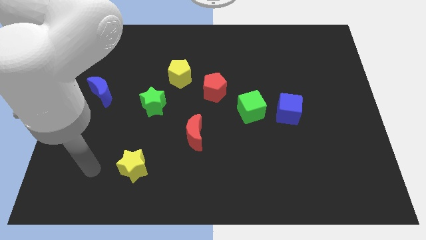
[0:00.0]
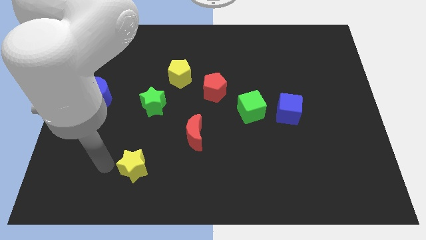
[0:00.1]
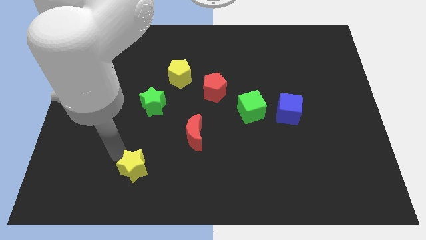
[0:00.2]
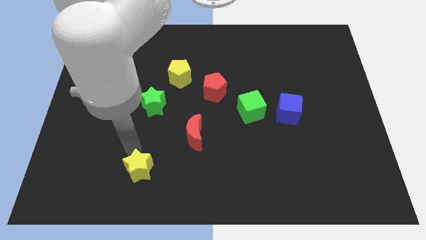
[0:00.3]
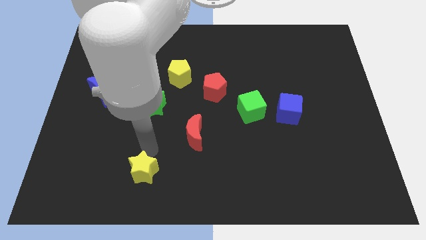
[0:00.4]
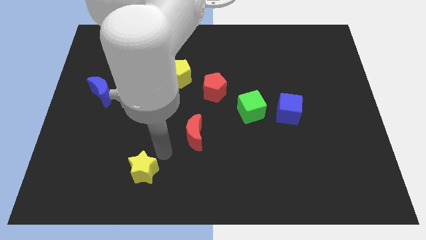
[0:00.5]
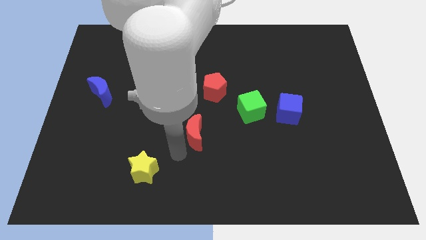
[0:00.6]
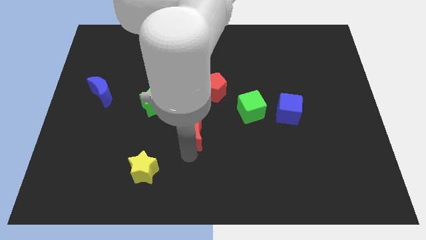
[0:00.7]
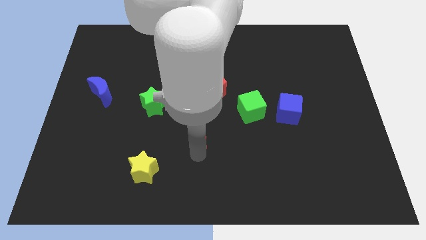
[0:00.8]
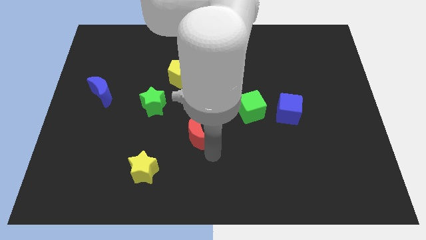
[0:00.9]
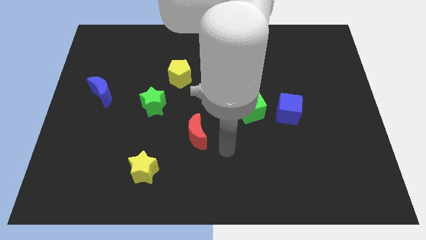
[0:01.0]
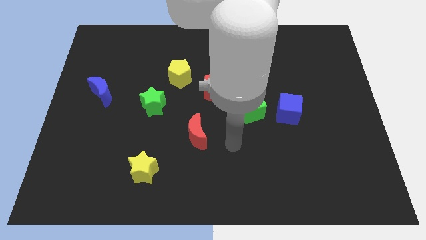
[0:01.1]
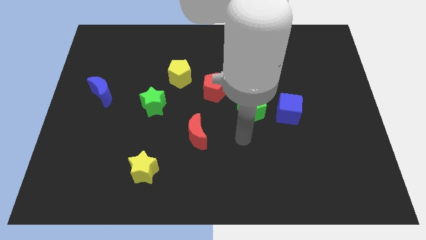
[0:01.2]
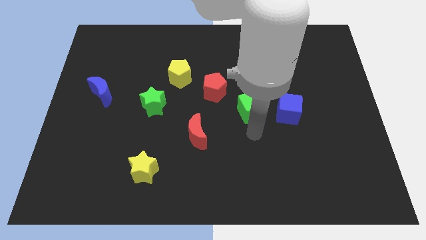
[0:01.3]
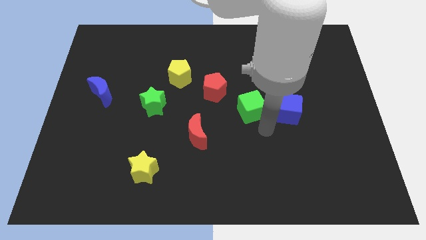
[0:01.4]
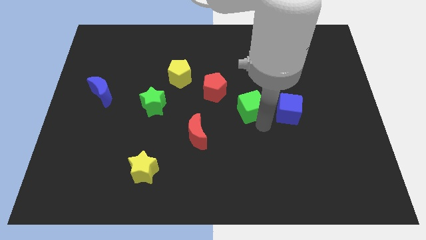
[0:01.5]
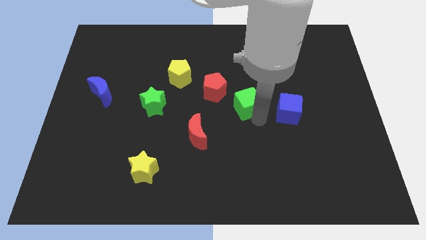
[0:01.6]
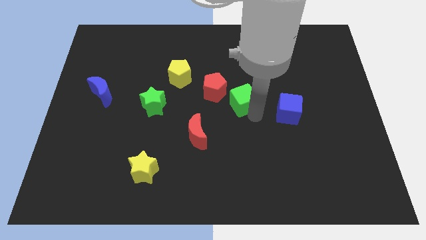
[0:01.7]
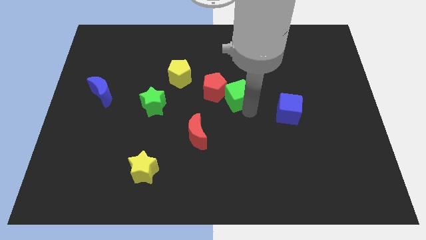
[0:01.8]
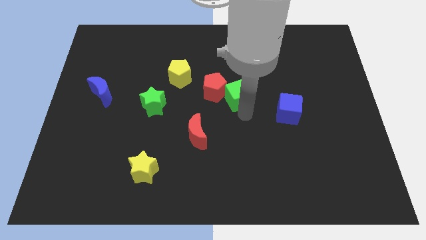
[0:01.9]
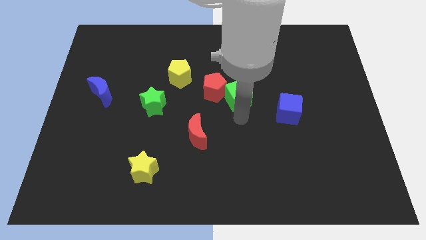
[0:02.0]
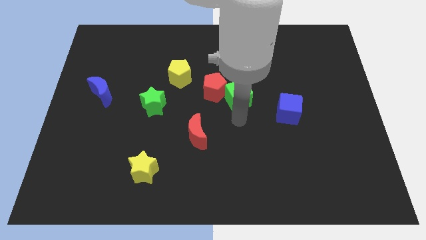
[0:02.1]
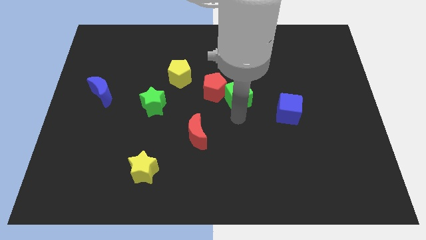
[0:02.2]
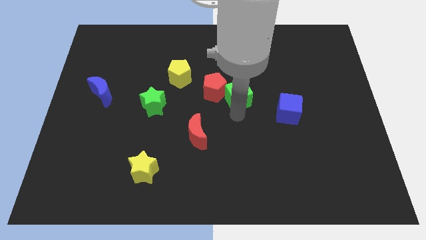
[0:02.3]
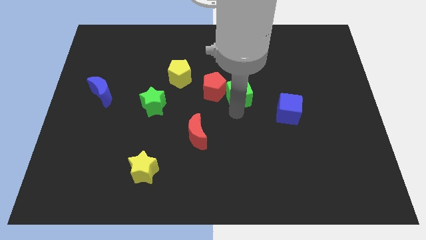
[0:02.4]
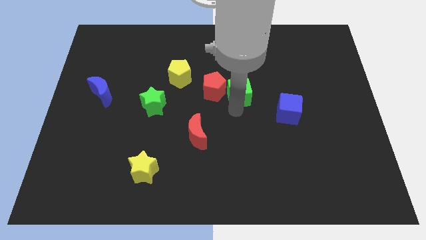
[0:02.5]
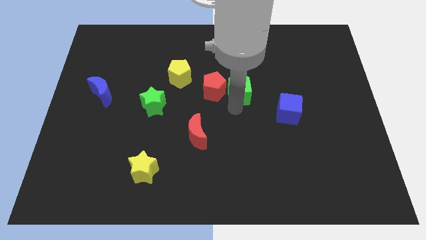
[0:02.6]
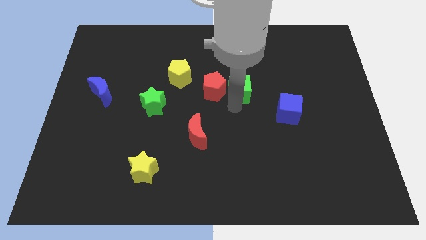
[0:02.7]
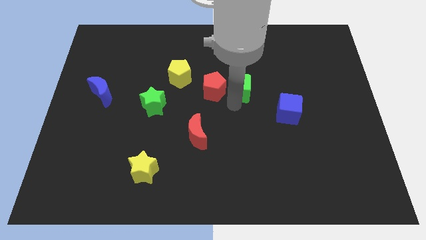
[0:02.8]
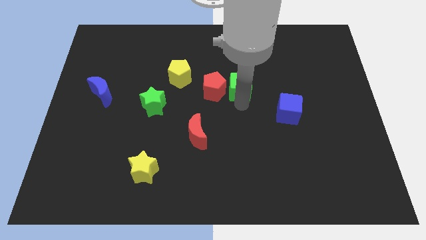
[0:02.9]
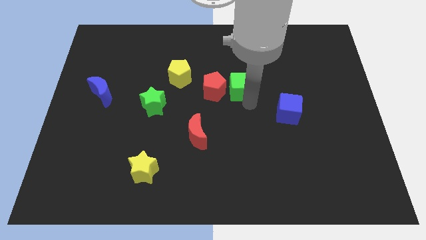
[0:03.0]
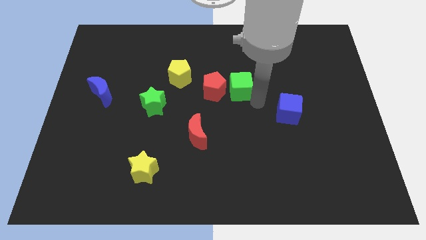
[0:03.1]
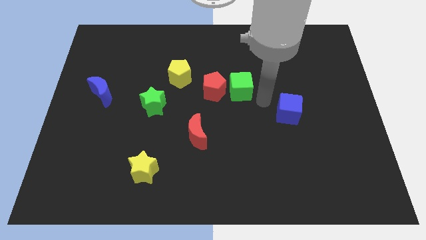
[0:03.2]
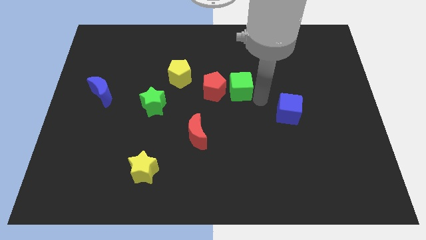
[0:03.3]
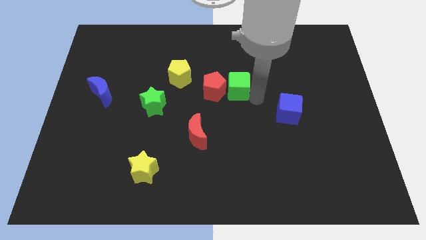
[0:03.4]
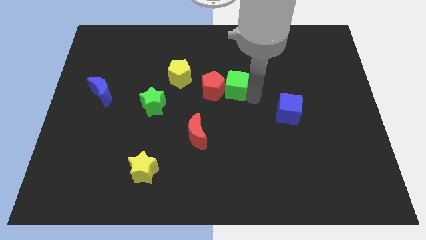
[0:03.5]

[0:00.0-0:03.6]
push the green cube diagonally up and left slightly

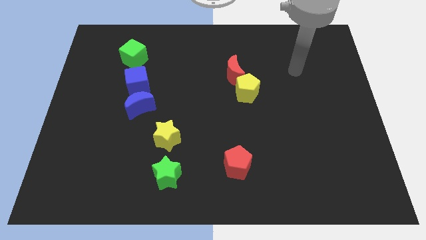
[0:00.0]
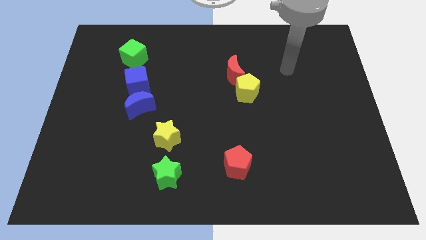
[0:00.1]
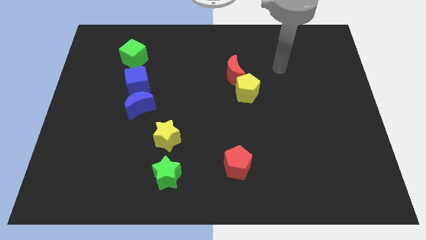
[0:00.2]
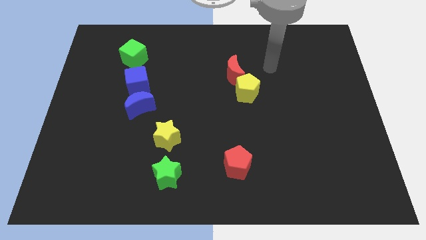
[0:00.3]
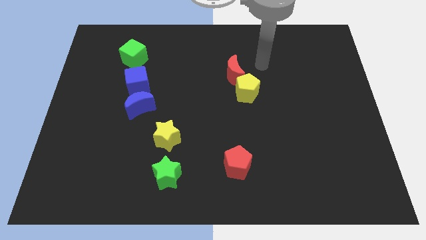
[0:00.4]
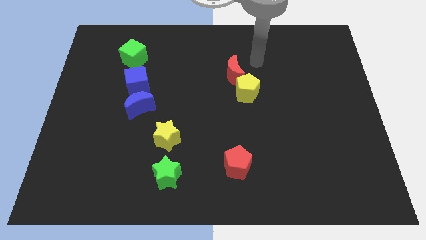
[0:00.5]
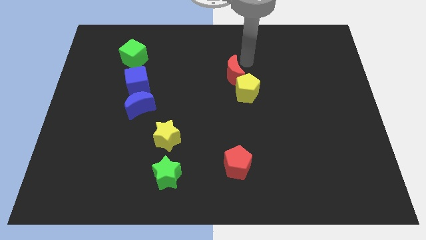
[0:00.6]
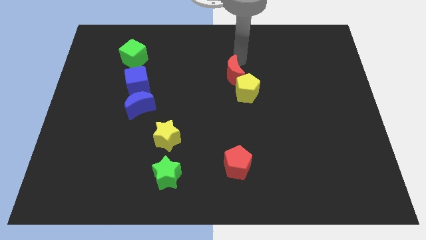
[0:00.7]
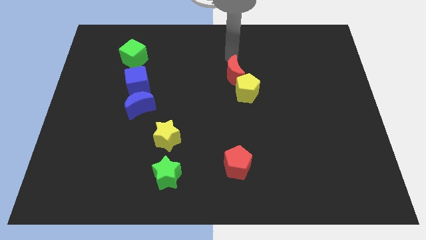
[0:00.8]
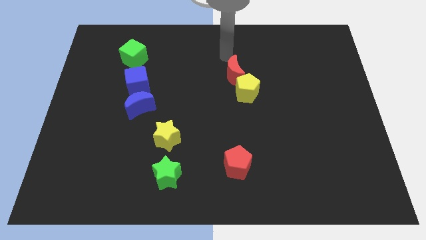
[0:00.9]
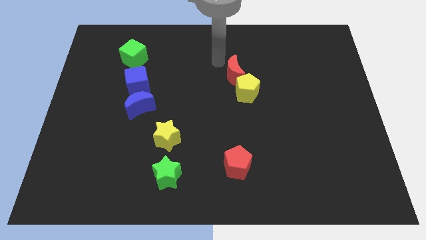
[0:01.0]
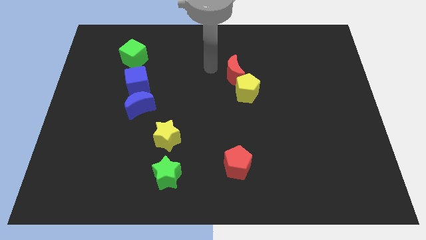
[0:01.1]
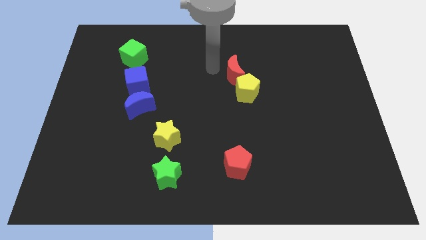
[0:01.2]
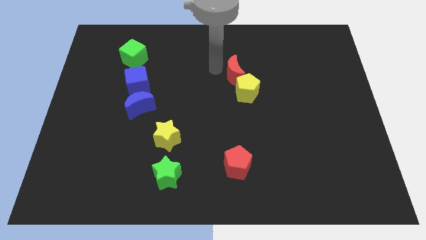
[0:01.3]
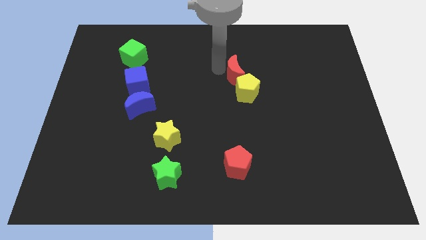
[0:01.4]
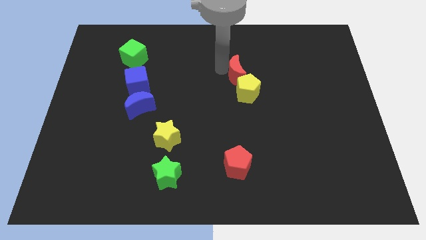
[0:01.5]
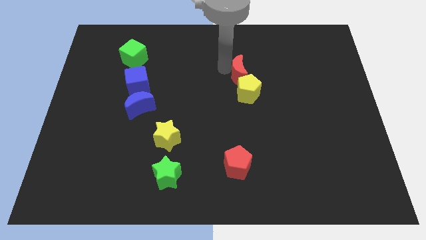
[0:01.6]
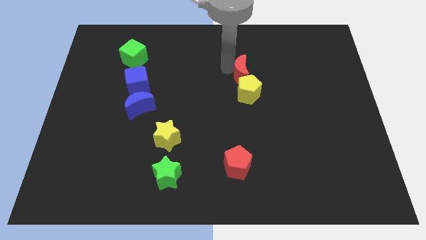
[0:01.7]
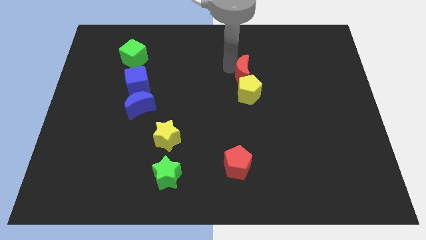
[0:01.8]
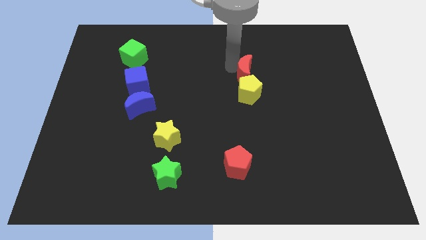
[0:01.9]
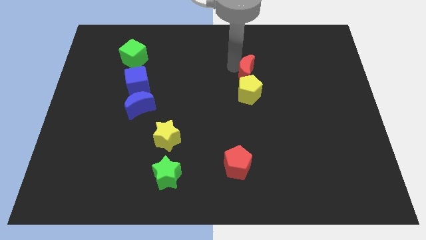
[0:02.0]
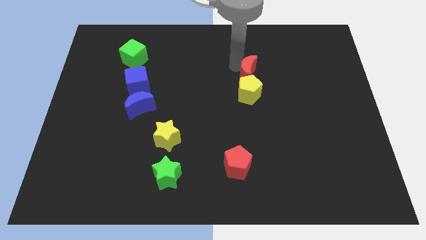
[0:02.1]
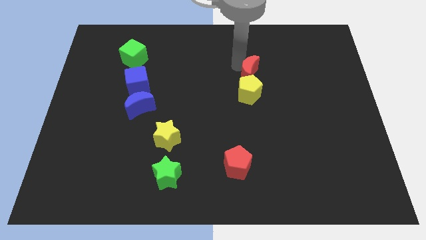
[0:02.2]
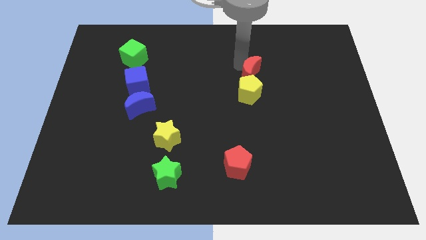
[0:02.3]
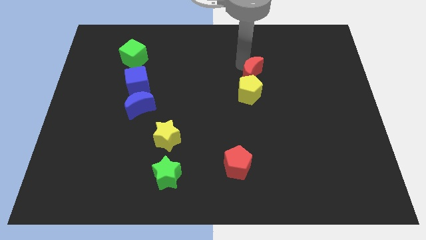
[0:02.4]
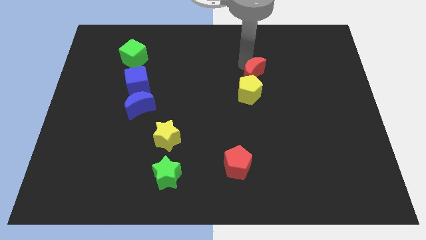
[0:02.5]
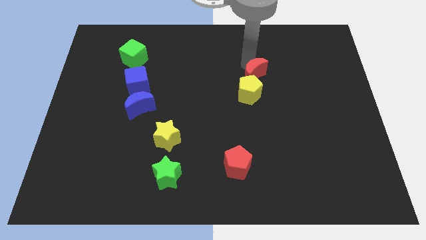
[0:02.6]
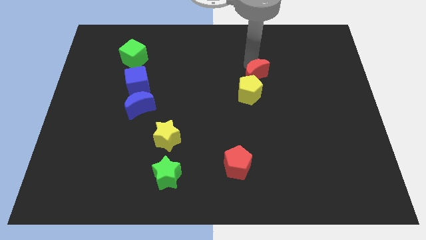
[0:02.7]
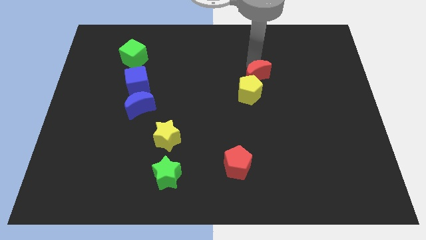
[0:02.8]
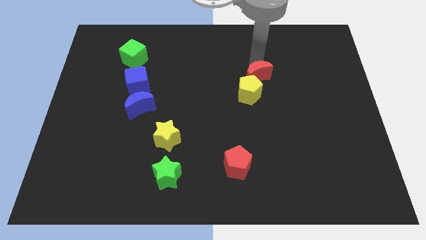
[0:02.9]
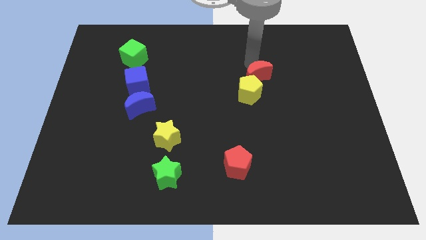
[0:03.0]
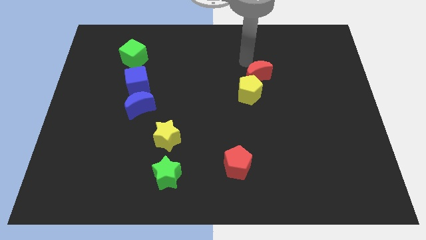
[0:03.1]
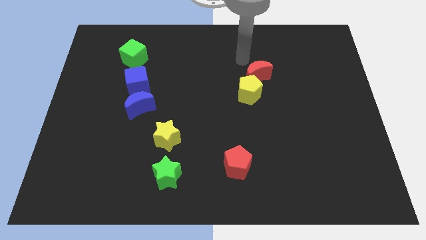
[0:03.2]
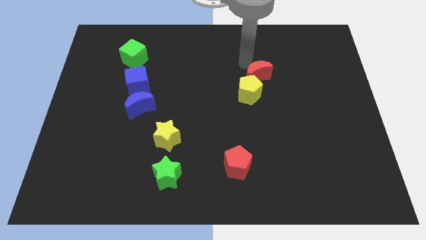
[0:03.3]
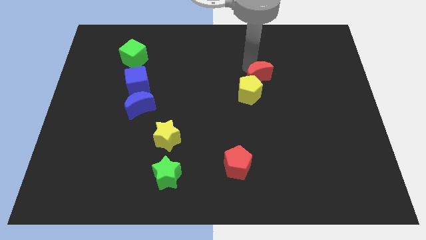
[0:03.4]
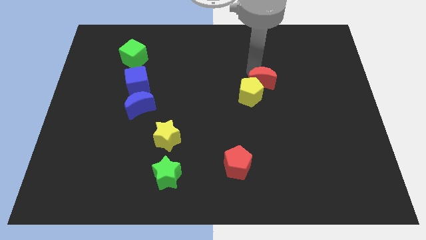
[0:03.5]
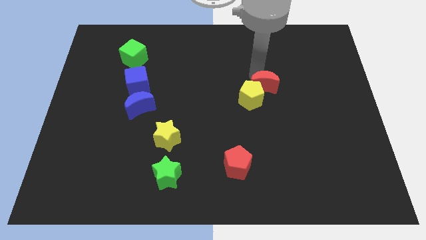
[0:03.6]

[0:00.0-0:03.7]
slightly push the red moon diagonally downwards and to the right

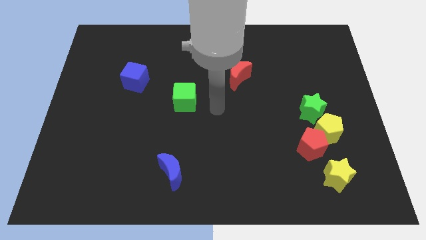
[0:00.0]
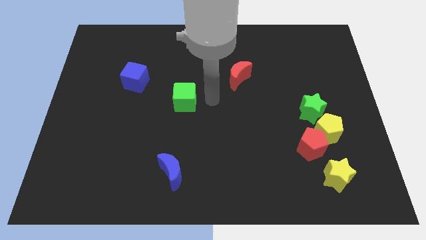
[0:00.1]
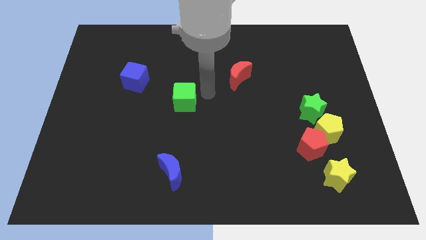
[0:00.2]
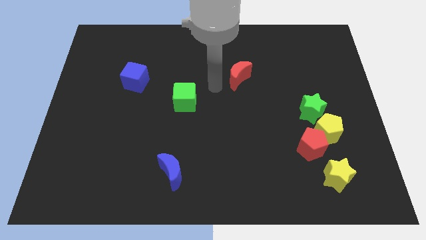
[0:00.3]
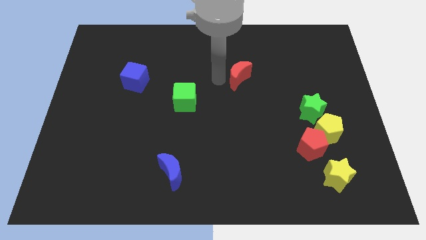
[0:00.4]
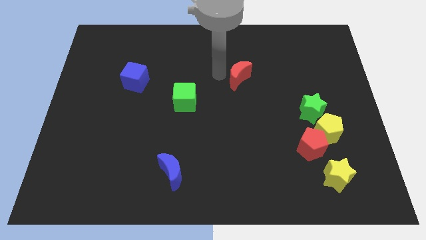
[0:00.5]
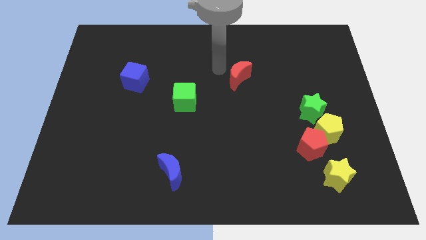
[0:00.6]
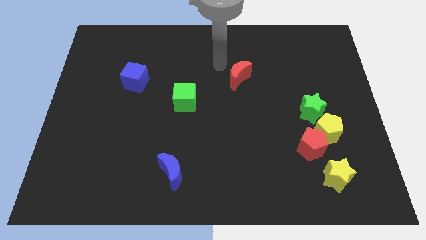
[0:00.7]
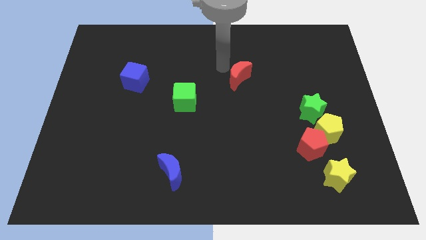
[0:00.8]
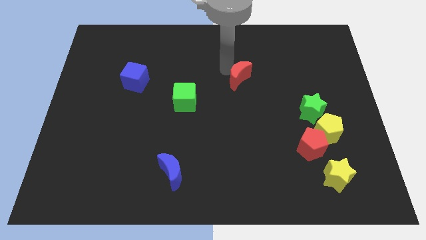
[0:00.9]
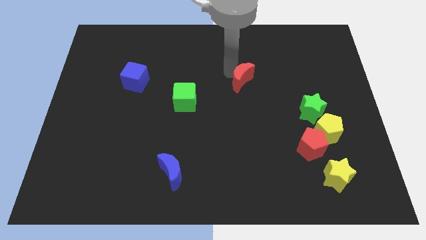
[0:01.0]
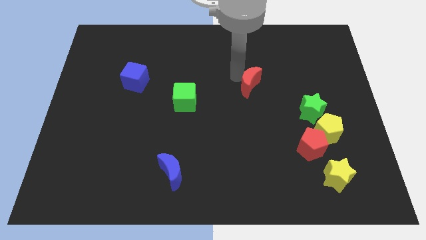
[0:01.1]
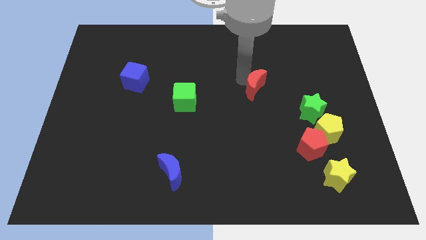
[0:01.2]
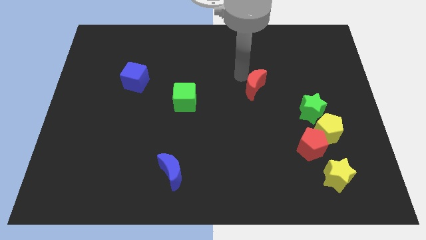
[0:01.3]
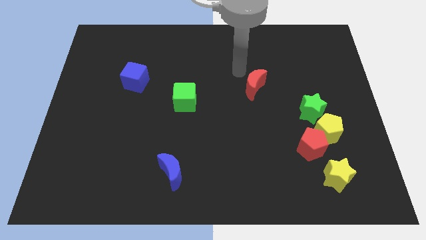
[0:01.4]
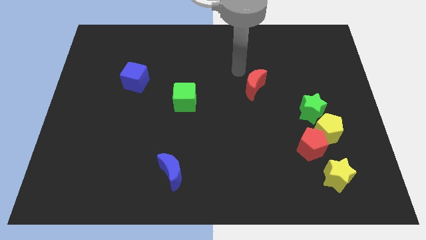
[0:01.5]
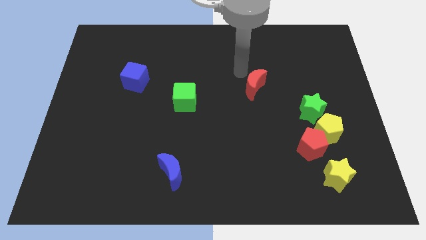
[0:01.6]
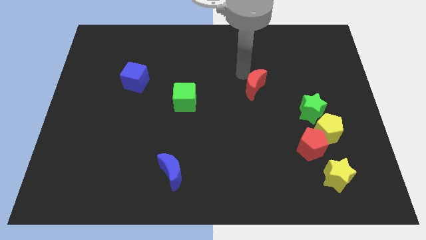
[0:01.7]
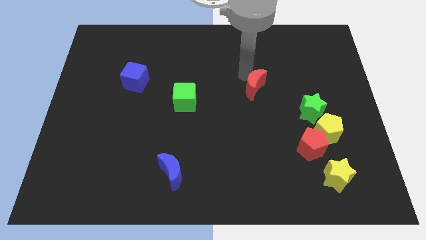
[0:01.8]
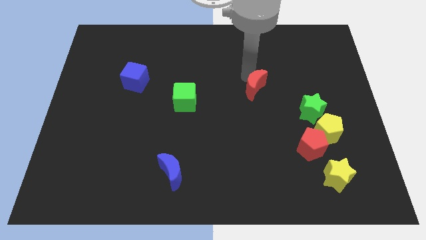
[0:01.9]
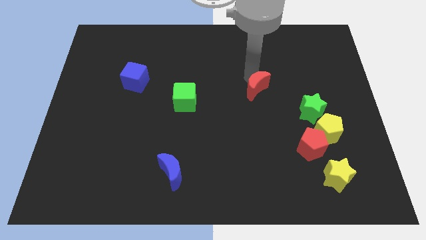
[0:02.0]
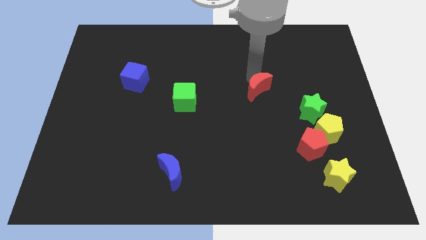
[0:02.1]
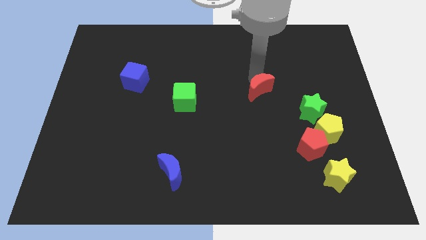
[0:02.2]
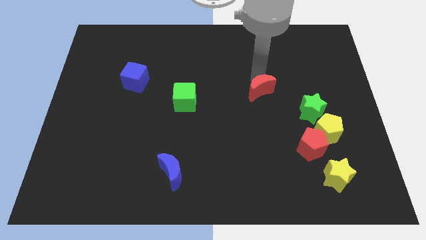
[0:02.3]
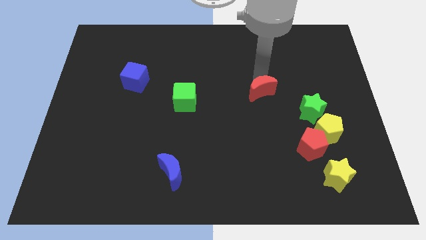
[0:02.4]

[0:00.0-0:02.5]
slide the red moon a little bit diagonally downwards and to the right
